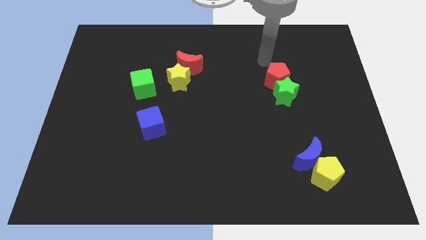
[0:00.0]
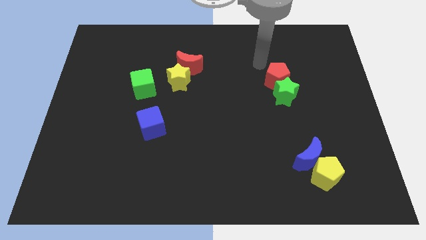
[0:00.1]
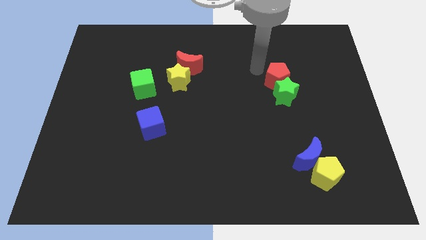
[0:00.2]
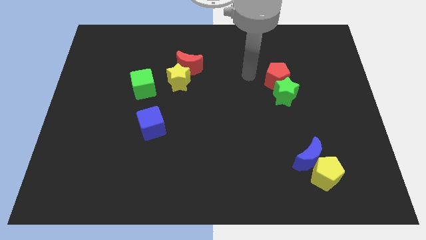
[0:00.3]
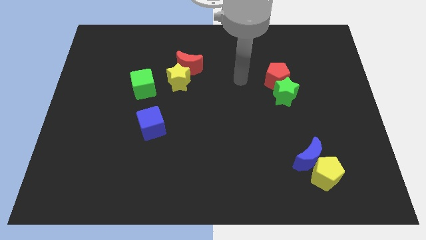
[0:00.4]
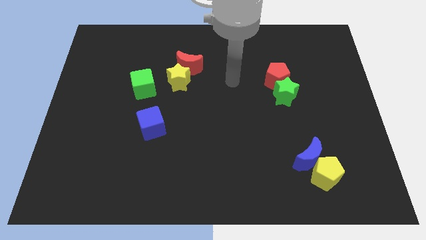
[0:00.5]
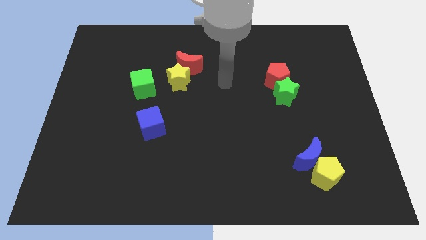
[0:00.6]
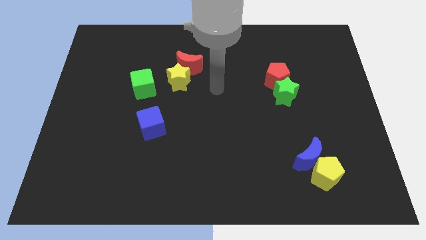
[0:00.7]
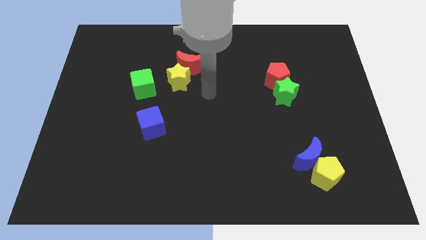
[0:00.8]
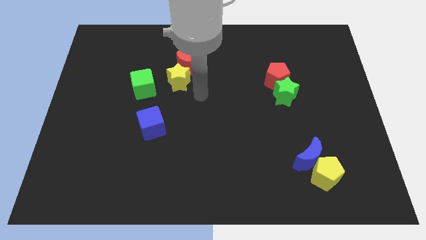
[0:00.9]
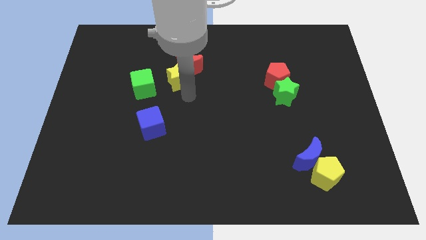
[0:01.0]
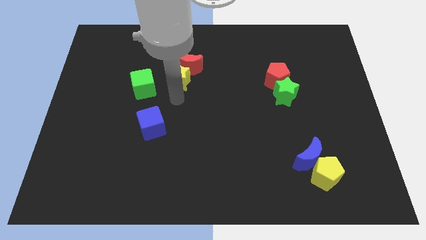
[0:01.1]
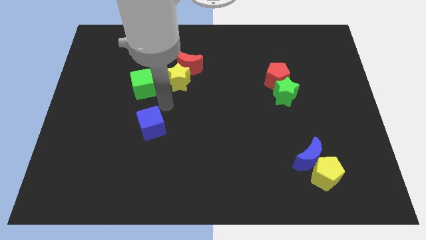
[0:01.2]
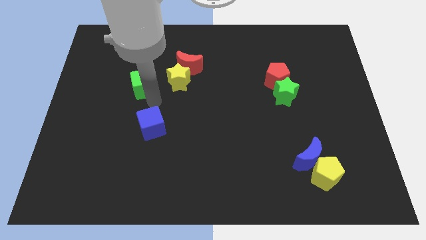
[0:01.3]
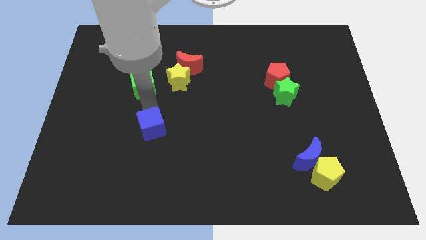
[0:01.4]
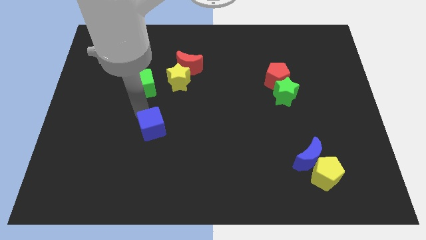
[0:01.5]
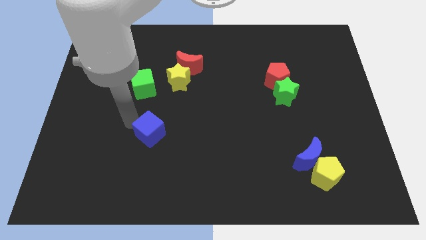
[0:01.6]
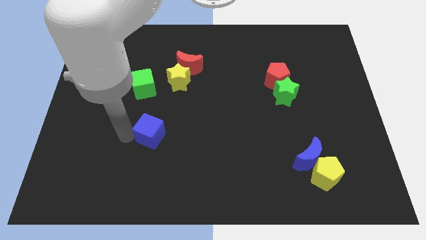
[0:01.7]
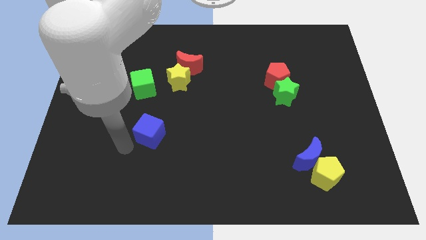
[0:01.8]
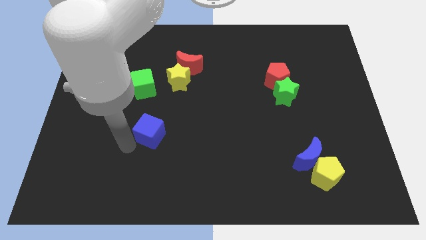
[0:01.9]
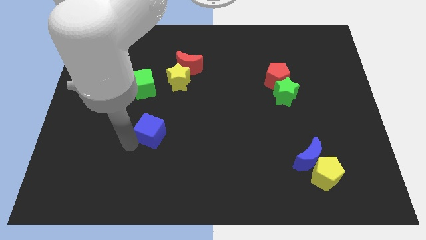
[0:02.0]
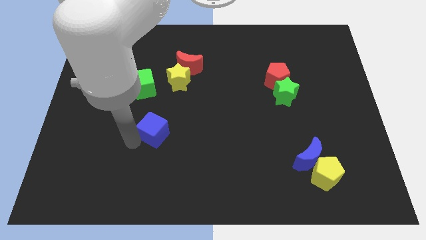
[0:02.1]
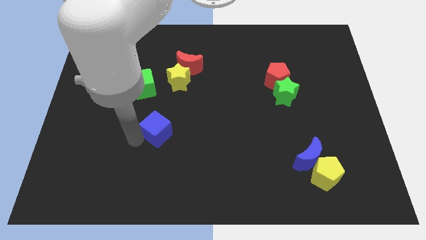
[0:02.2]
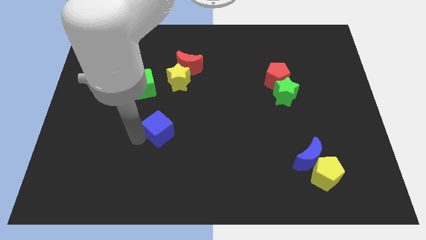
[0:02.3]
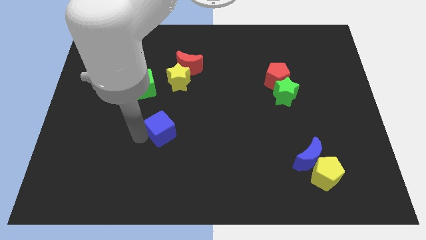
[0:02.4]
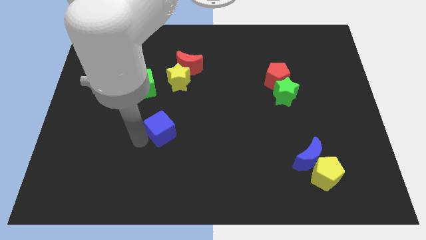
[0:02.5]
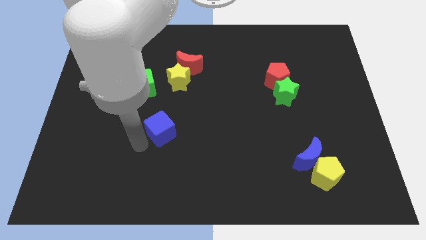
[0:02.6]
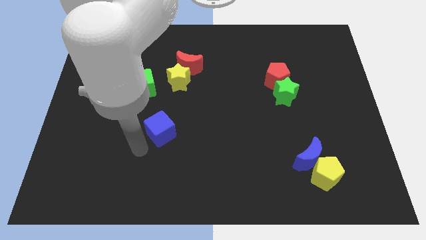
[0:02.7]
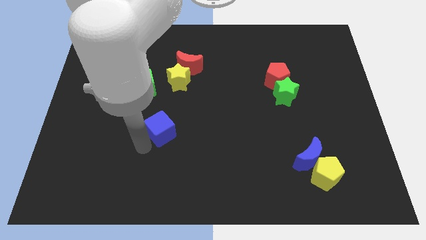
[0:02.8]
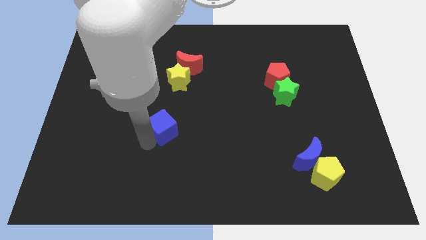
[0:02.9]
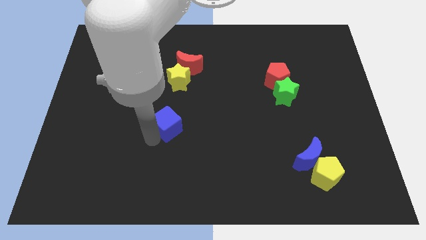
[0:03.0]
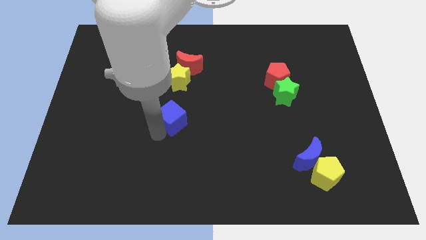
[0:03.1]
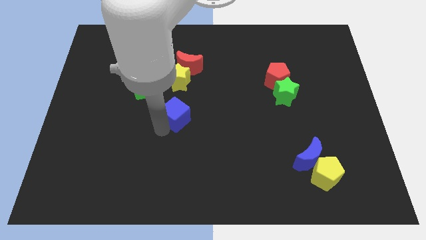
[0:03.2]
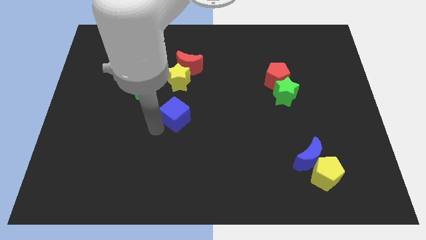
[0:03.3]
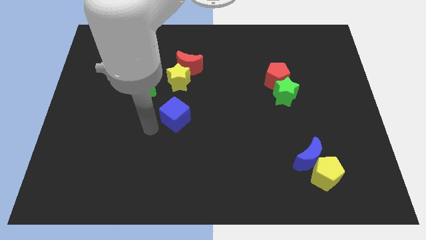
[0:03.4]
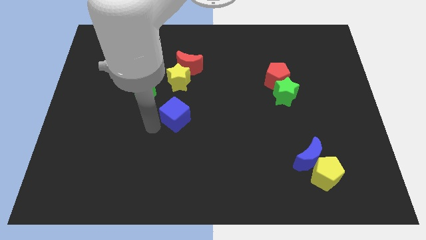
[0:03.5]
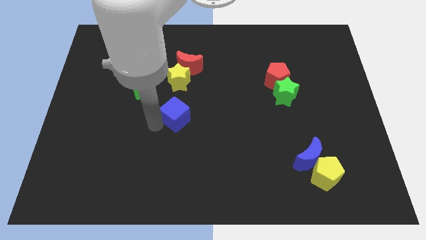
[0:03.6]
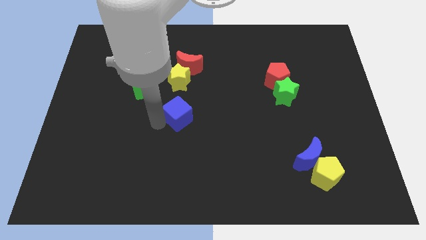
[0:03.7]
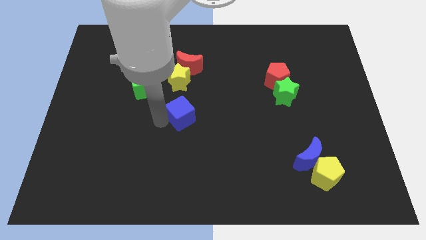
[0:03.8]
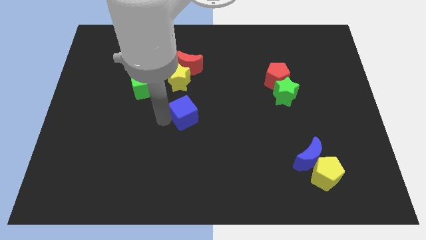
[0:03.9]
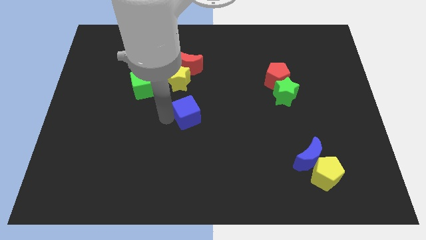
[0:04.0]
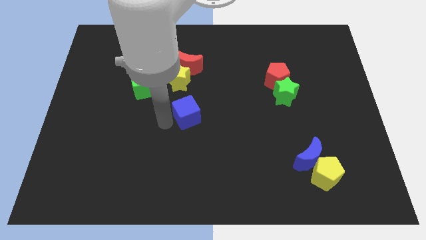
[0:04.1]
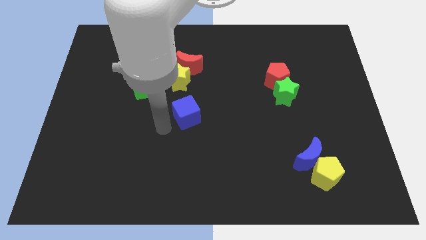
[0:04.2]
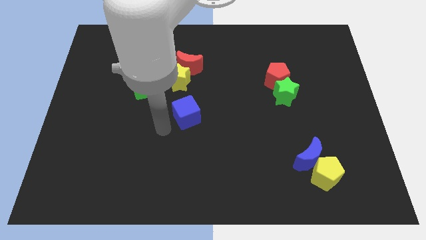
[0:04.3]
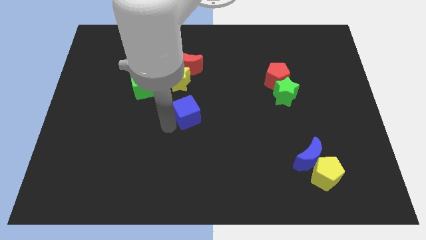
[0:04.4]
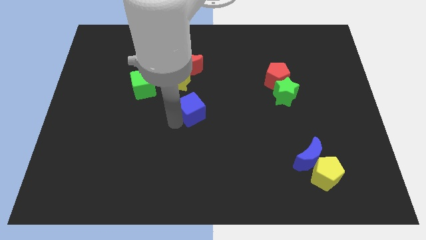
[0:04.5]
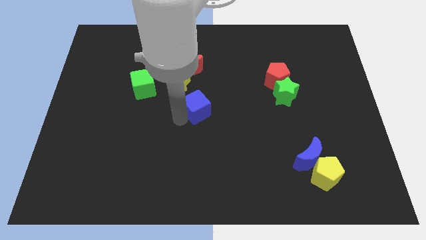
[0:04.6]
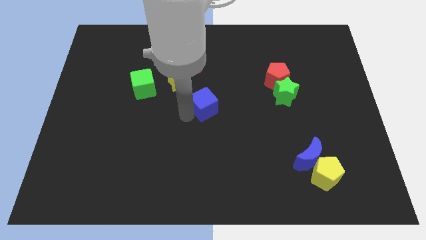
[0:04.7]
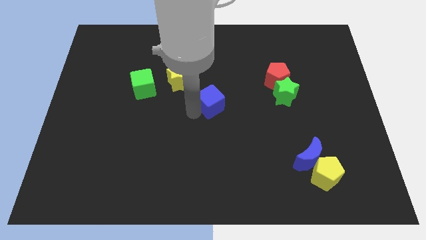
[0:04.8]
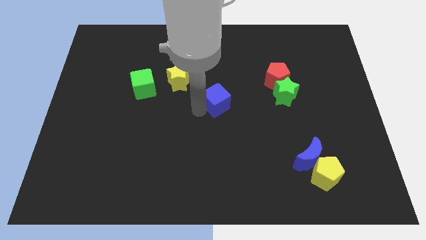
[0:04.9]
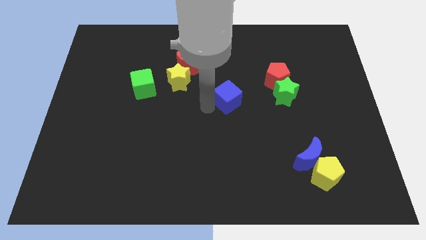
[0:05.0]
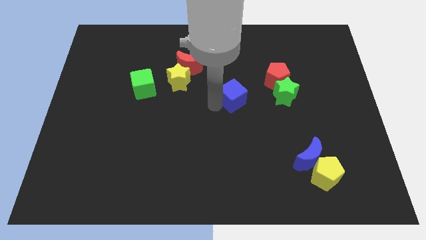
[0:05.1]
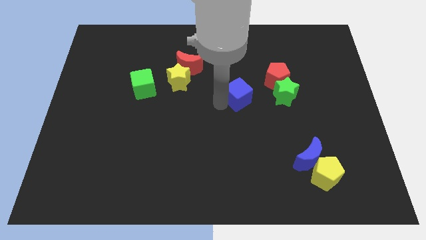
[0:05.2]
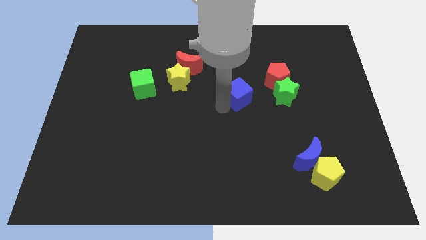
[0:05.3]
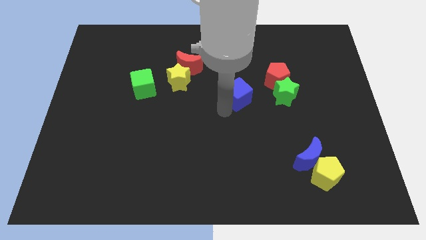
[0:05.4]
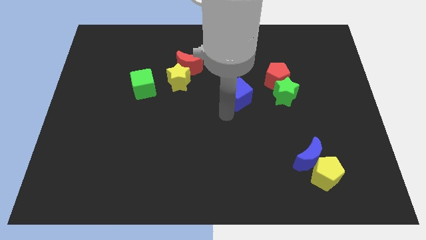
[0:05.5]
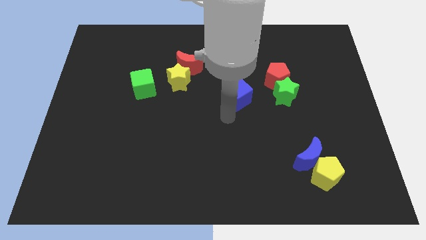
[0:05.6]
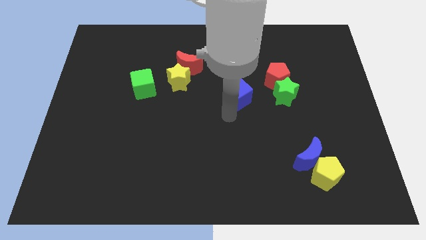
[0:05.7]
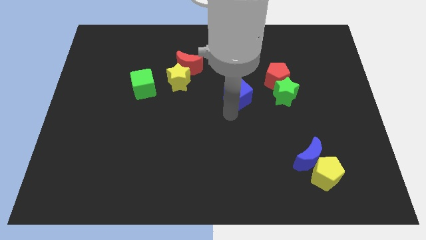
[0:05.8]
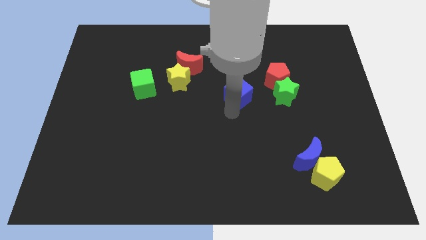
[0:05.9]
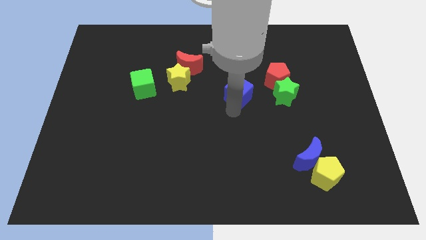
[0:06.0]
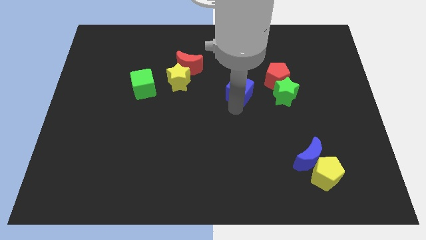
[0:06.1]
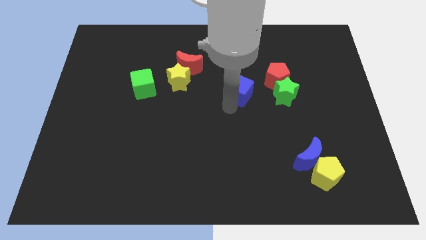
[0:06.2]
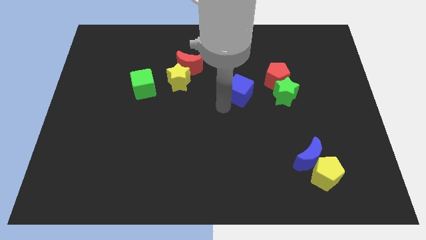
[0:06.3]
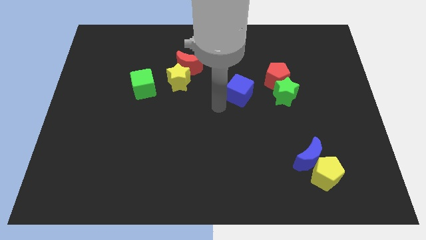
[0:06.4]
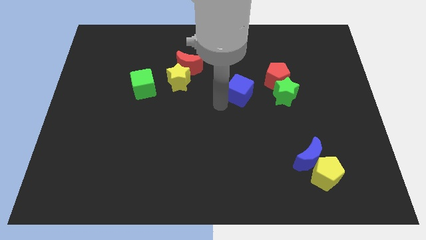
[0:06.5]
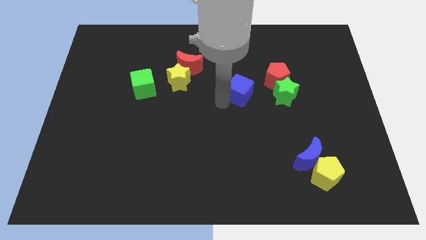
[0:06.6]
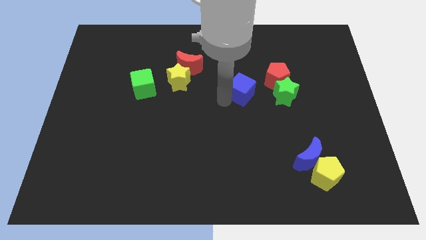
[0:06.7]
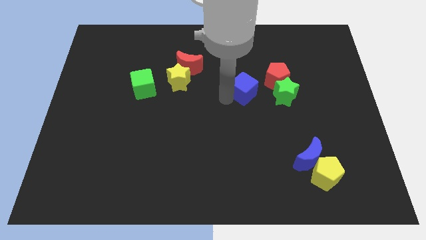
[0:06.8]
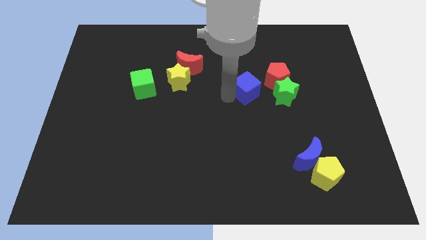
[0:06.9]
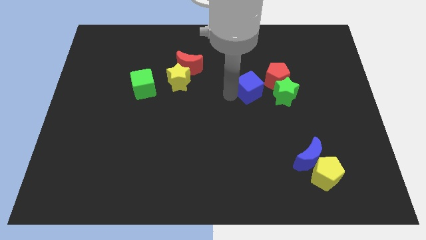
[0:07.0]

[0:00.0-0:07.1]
push the blue cube to the top left of the green star
